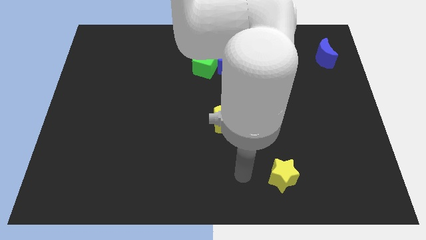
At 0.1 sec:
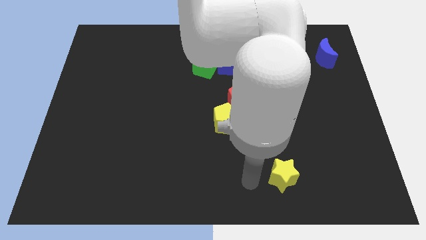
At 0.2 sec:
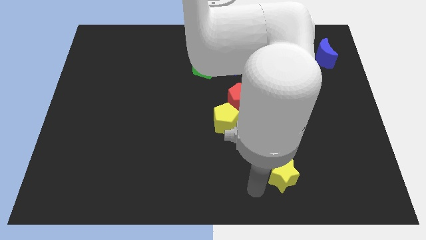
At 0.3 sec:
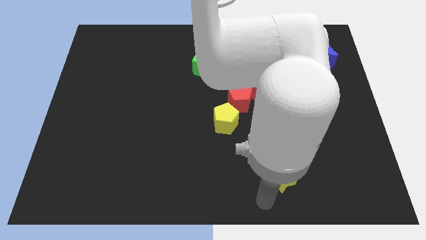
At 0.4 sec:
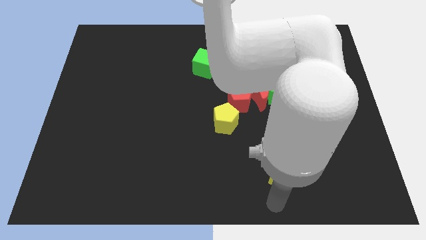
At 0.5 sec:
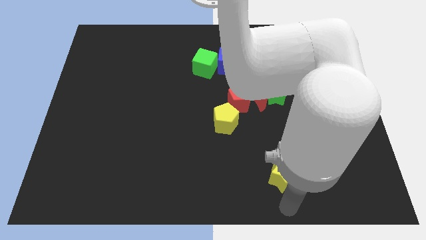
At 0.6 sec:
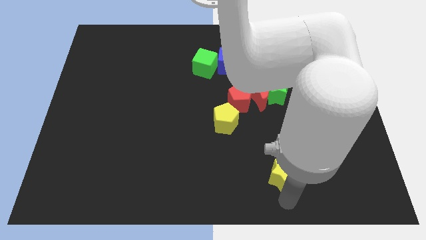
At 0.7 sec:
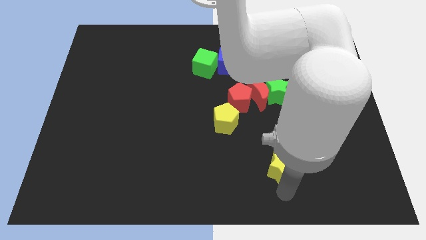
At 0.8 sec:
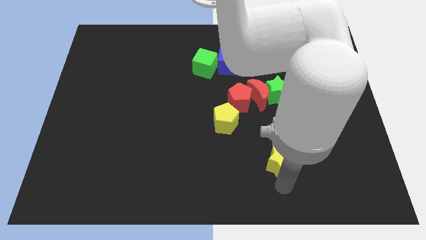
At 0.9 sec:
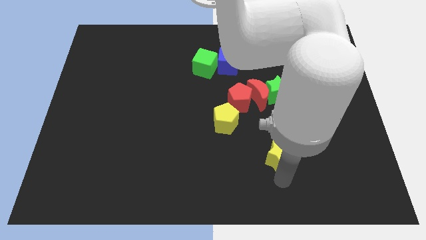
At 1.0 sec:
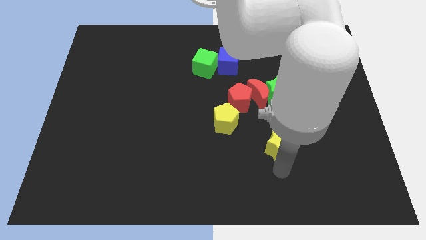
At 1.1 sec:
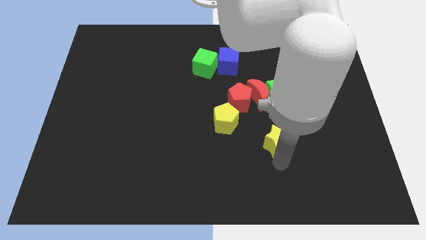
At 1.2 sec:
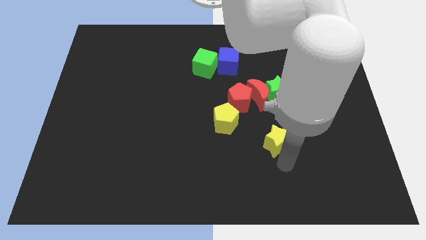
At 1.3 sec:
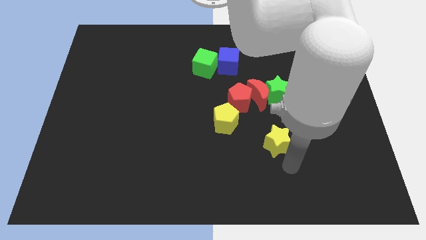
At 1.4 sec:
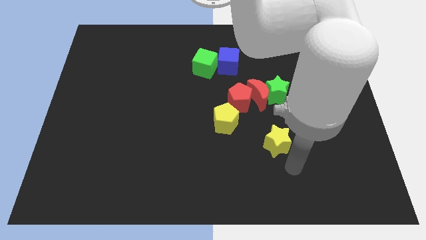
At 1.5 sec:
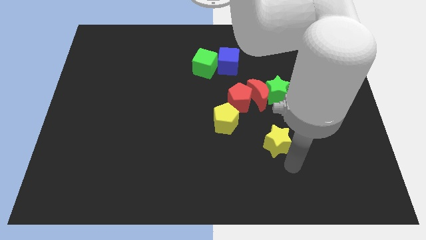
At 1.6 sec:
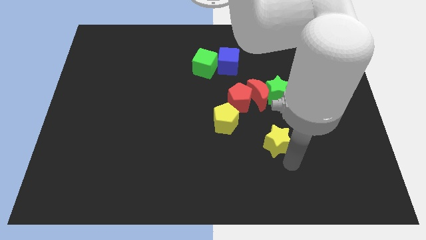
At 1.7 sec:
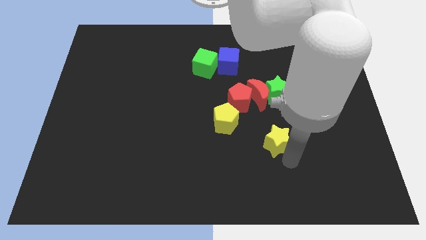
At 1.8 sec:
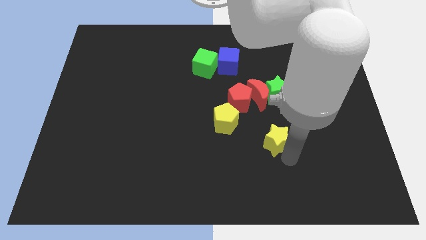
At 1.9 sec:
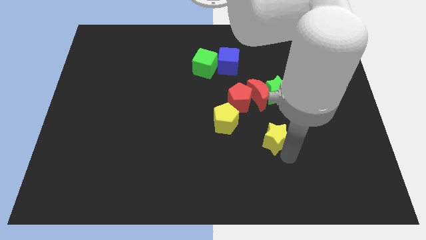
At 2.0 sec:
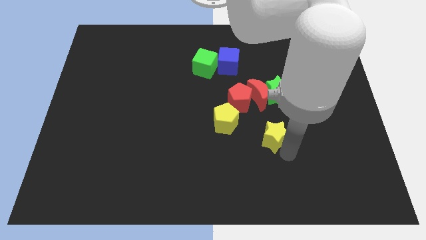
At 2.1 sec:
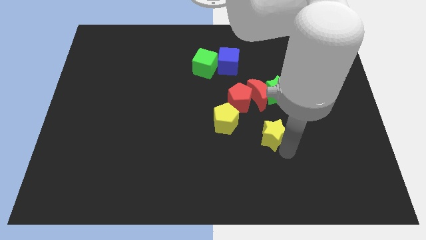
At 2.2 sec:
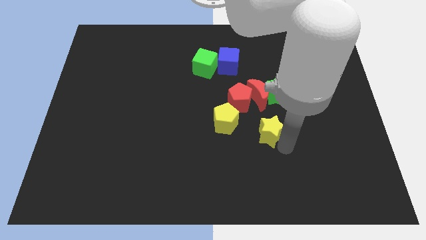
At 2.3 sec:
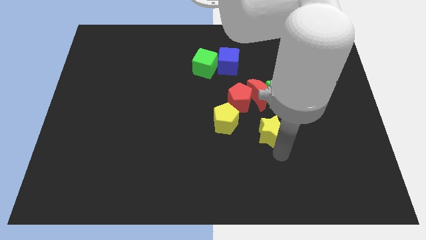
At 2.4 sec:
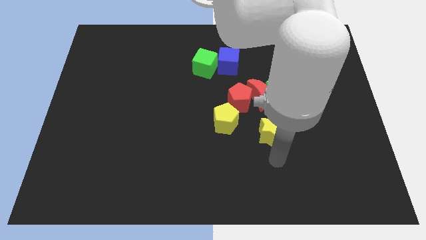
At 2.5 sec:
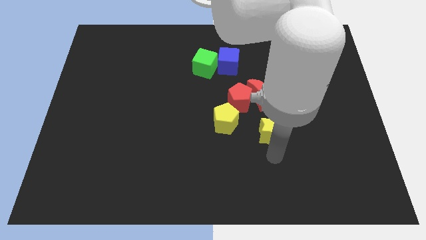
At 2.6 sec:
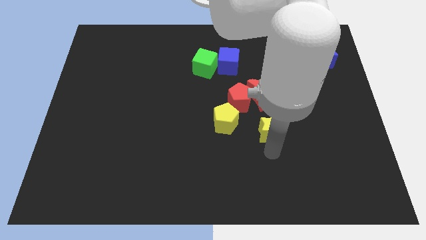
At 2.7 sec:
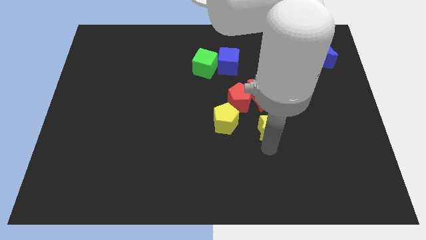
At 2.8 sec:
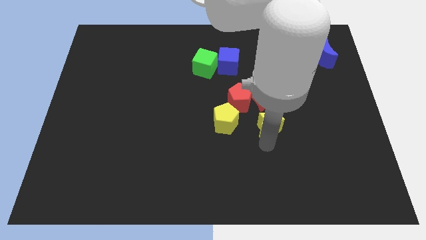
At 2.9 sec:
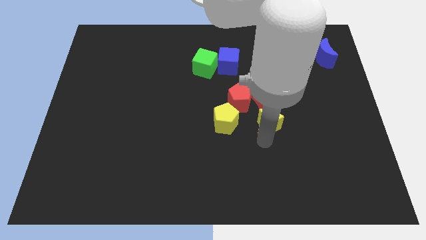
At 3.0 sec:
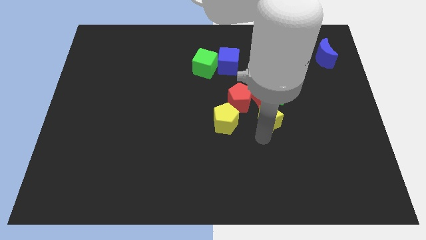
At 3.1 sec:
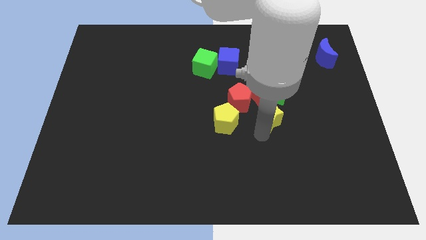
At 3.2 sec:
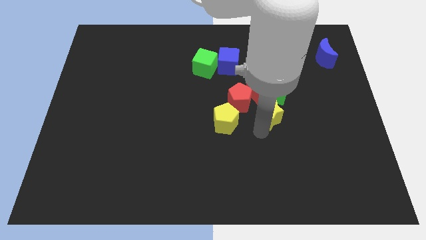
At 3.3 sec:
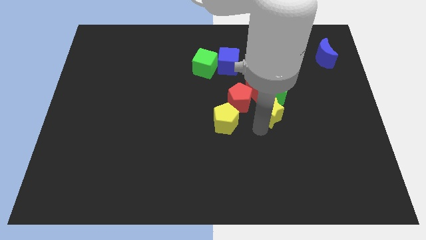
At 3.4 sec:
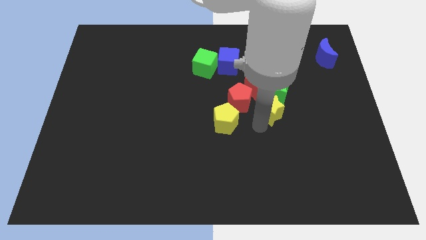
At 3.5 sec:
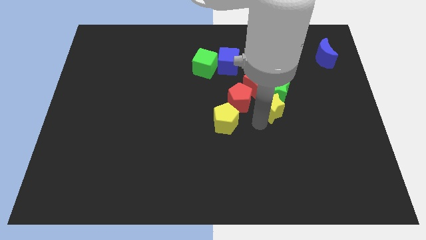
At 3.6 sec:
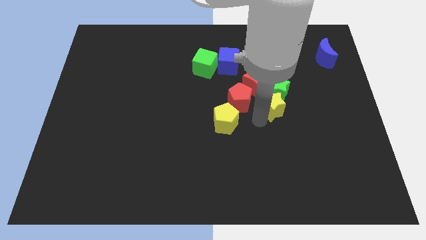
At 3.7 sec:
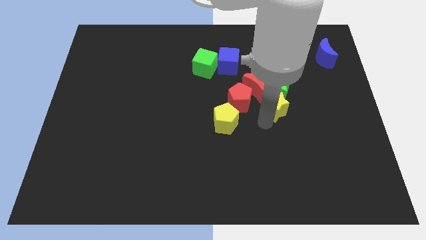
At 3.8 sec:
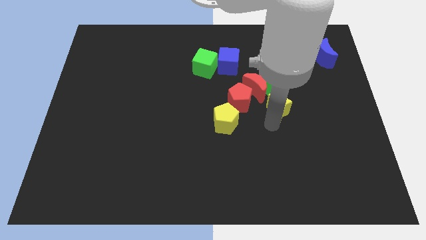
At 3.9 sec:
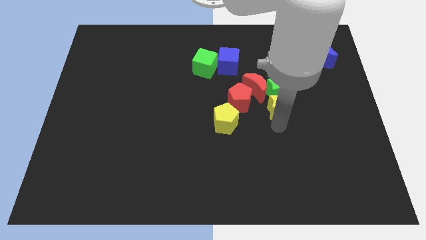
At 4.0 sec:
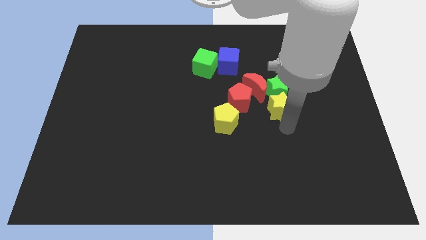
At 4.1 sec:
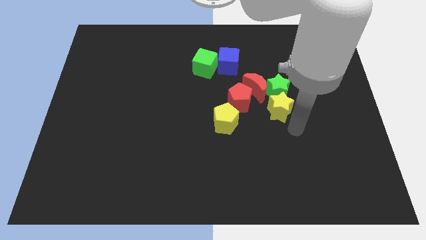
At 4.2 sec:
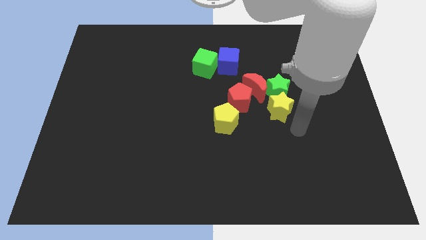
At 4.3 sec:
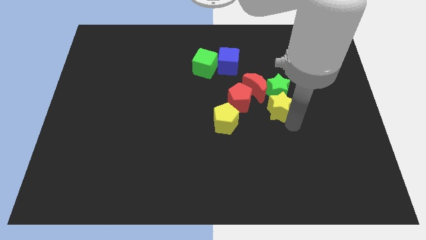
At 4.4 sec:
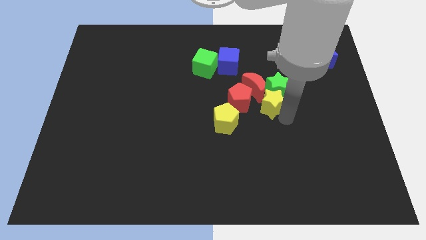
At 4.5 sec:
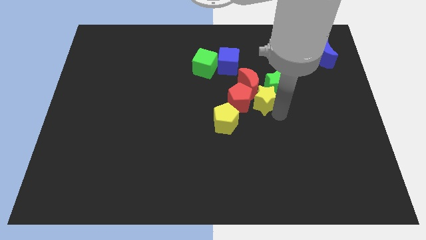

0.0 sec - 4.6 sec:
push the yellow star towards the red moon

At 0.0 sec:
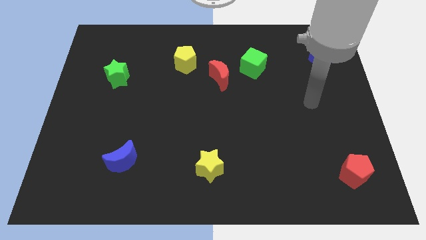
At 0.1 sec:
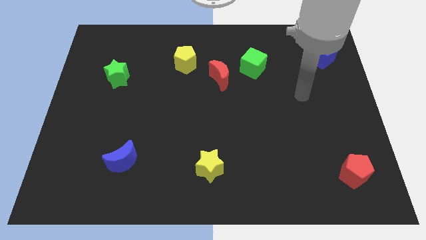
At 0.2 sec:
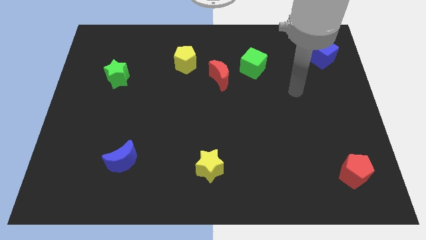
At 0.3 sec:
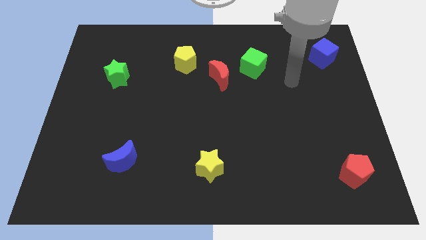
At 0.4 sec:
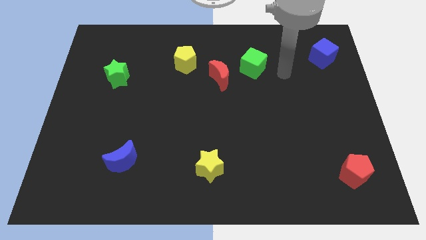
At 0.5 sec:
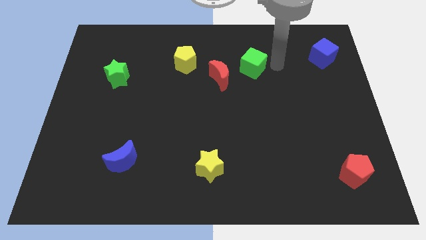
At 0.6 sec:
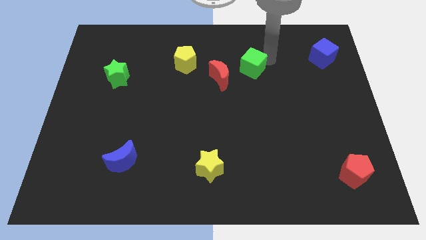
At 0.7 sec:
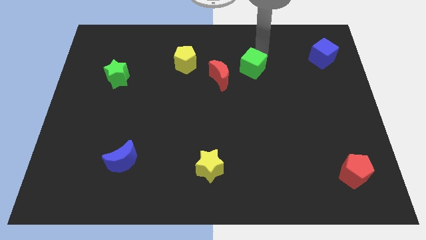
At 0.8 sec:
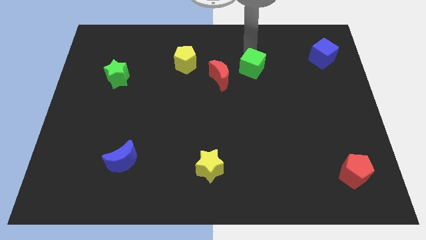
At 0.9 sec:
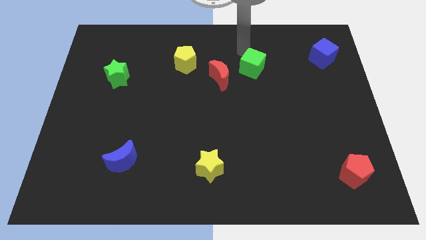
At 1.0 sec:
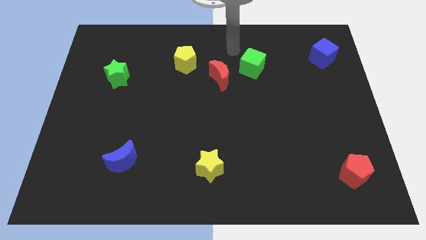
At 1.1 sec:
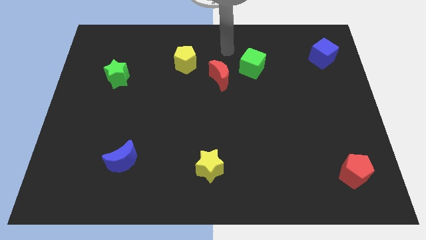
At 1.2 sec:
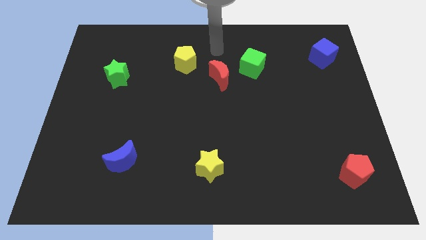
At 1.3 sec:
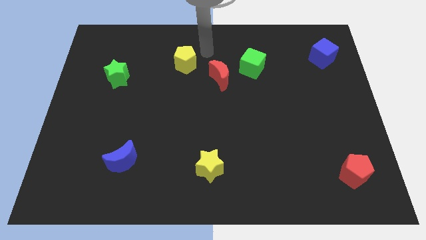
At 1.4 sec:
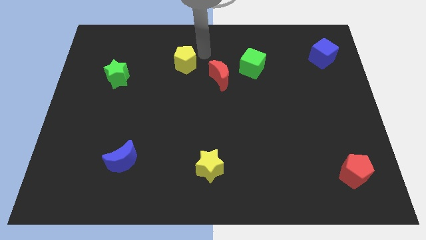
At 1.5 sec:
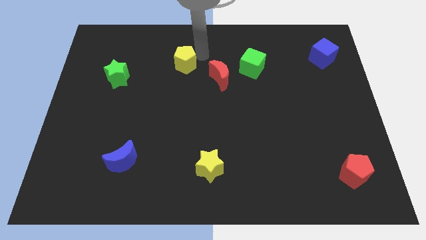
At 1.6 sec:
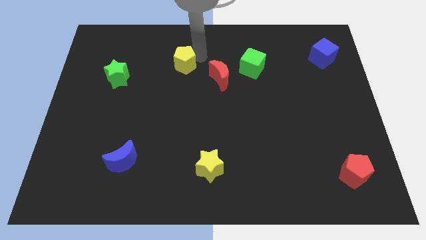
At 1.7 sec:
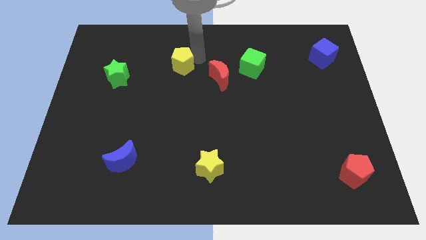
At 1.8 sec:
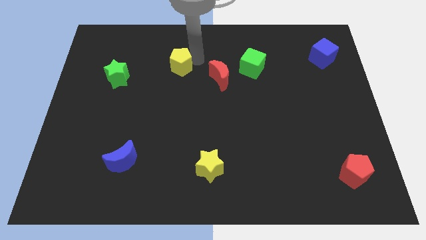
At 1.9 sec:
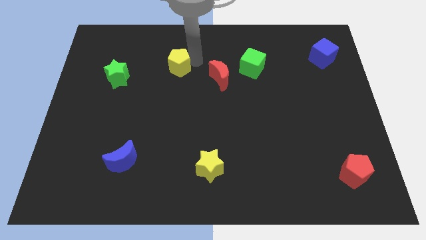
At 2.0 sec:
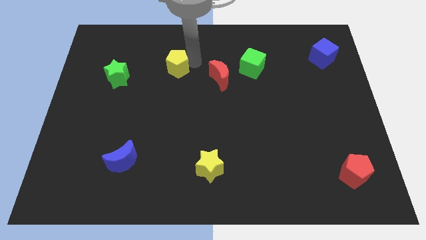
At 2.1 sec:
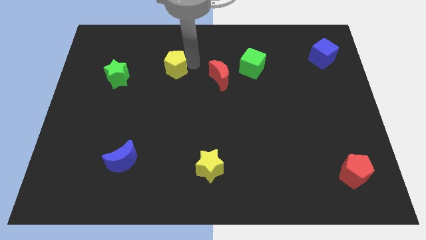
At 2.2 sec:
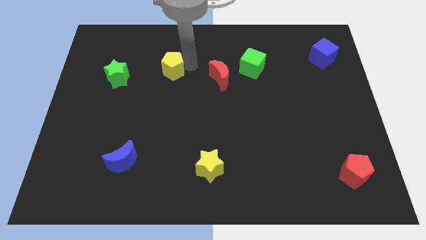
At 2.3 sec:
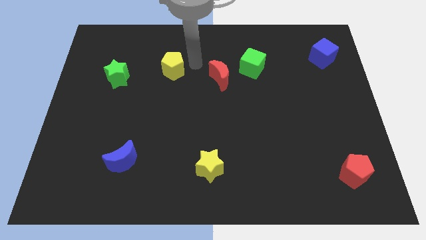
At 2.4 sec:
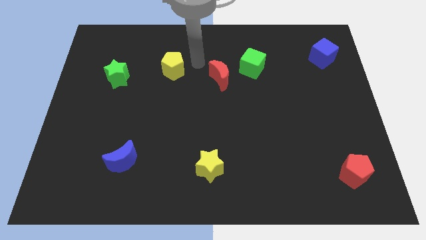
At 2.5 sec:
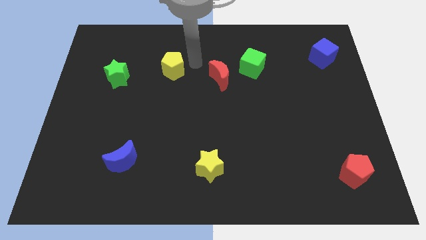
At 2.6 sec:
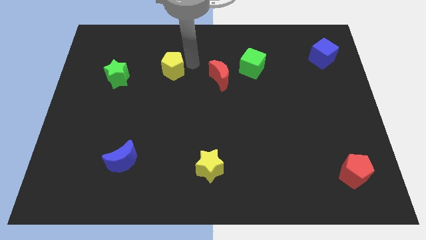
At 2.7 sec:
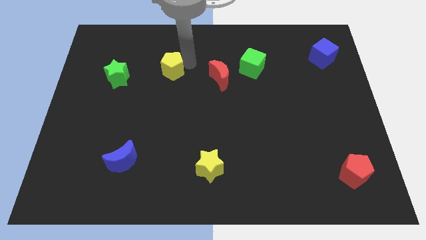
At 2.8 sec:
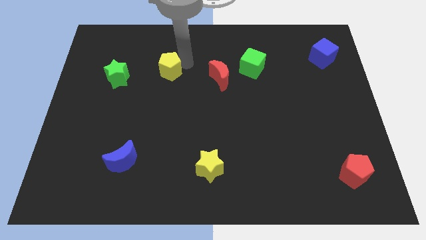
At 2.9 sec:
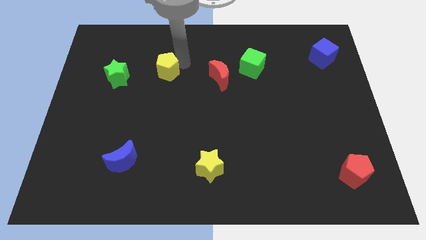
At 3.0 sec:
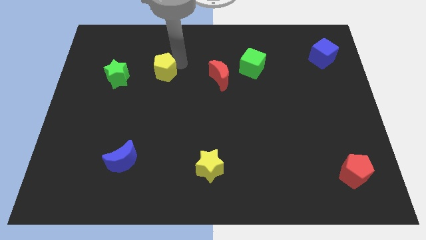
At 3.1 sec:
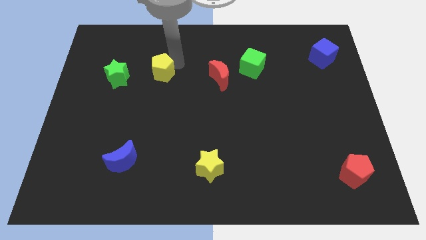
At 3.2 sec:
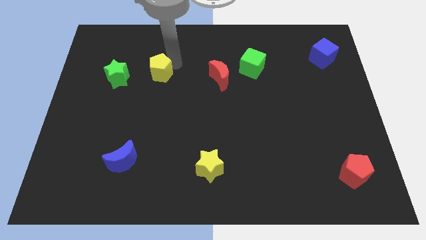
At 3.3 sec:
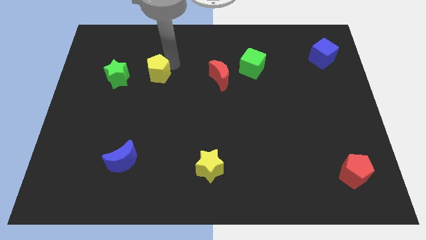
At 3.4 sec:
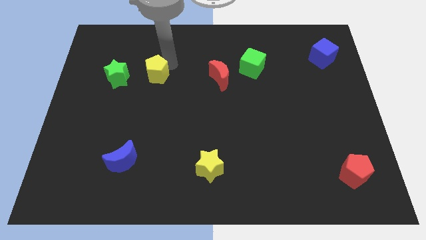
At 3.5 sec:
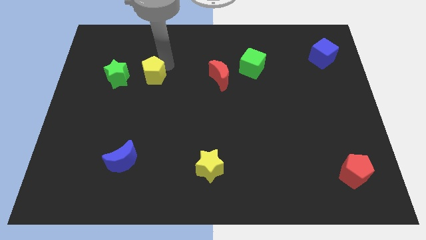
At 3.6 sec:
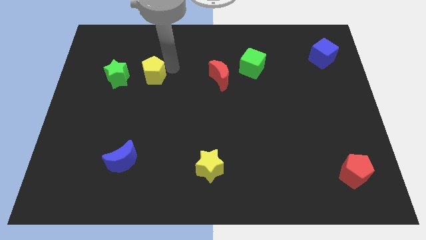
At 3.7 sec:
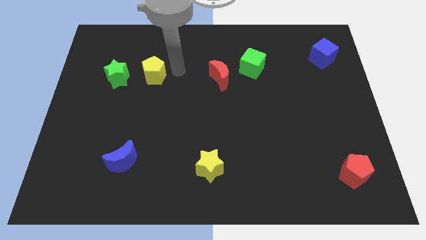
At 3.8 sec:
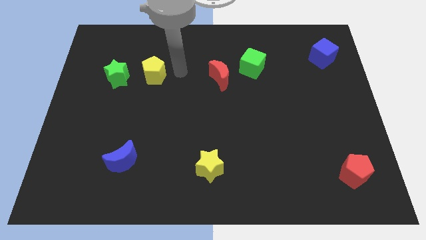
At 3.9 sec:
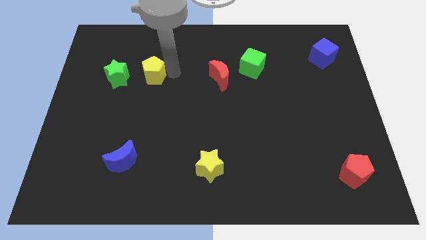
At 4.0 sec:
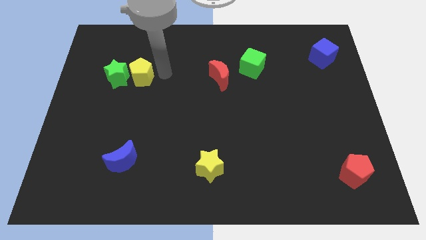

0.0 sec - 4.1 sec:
move the yellow pentagon next to the green star
